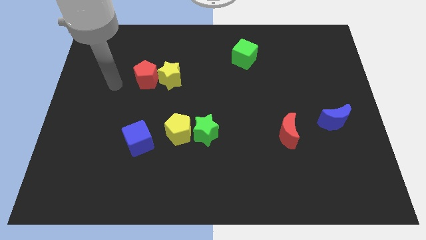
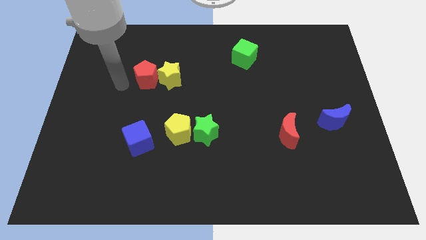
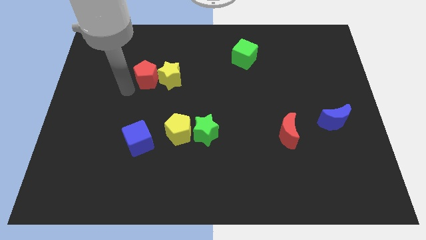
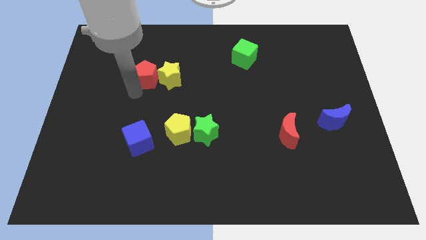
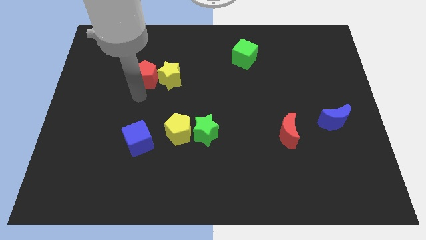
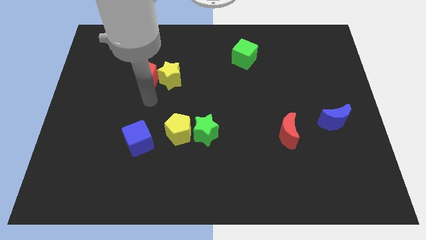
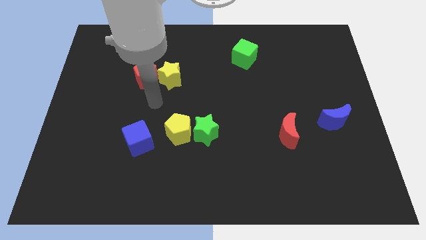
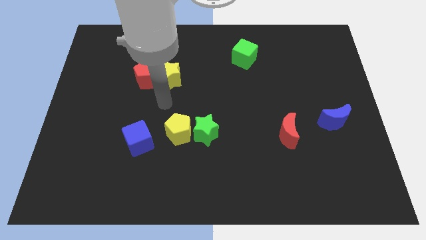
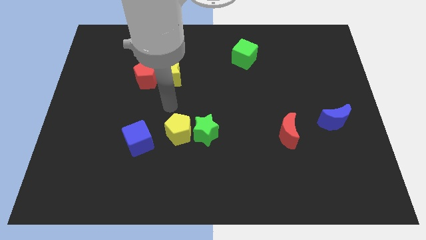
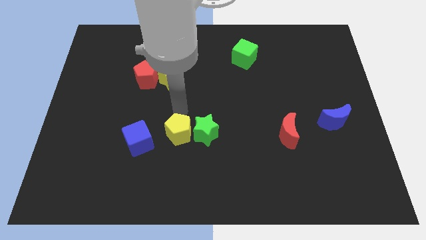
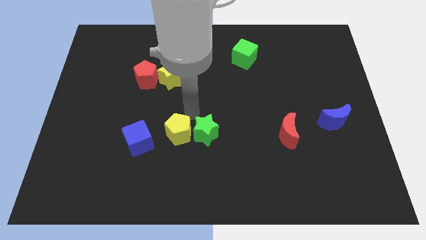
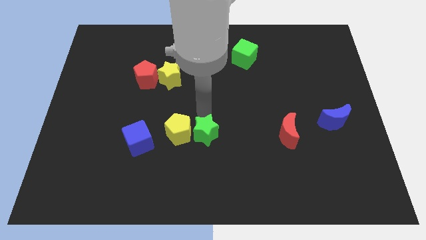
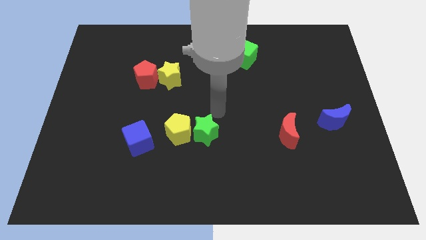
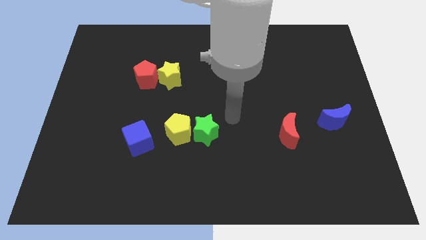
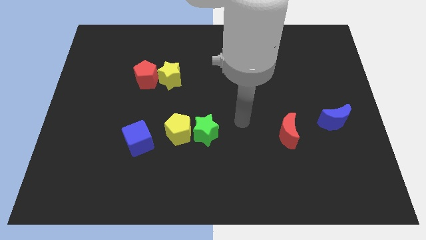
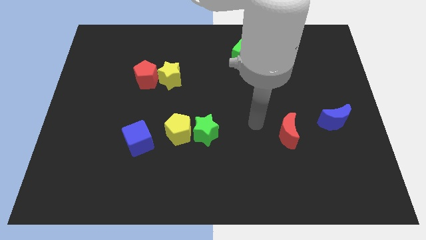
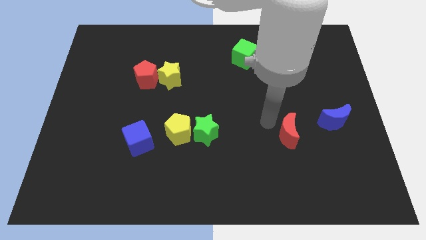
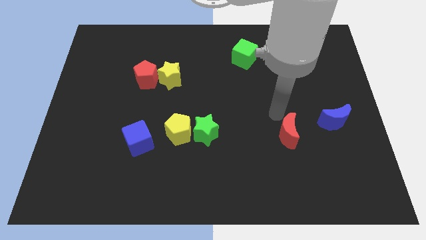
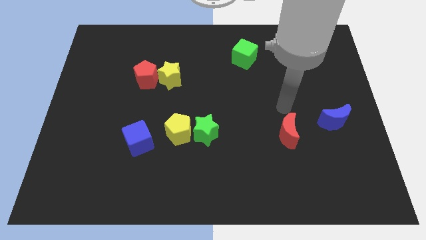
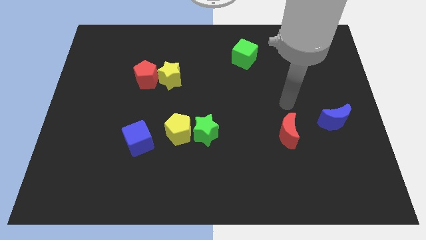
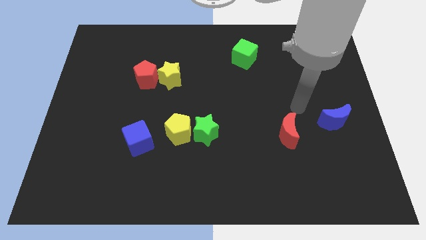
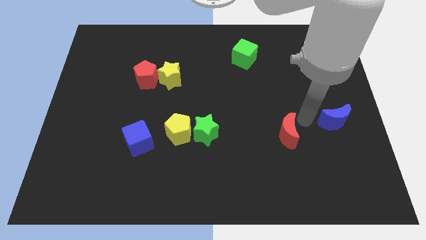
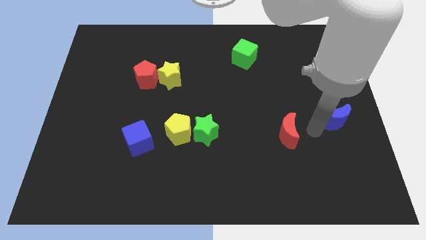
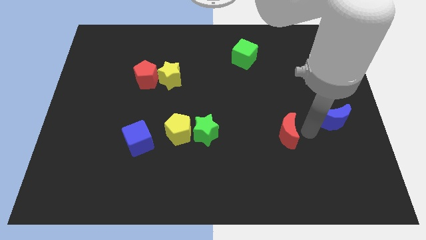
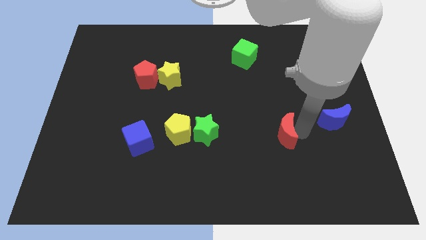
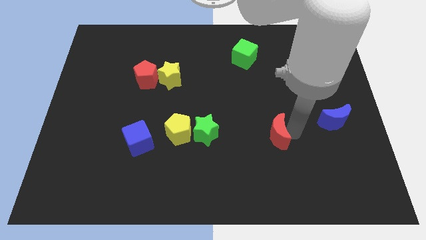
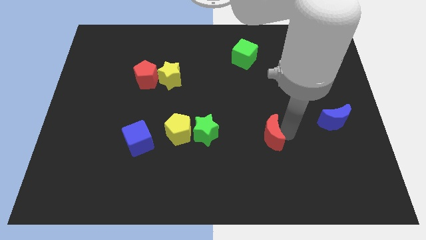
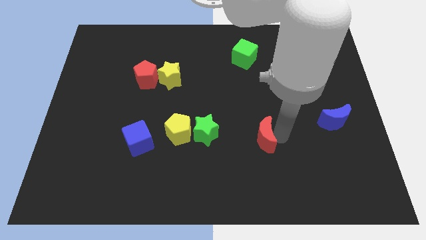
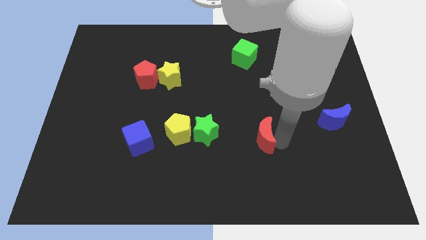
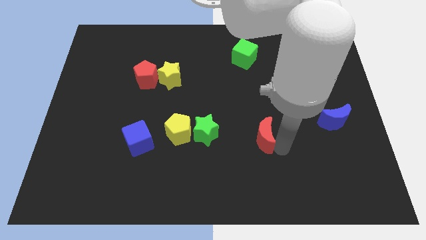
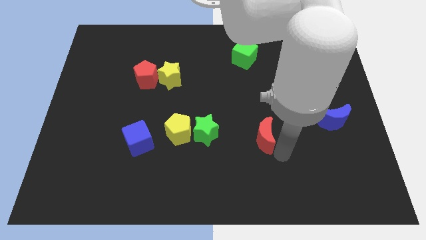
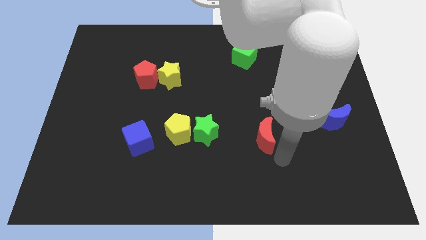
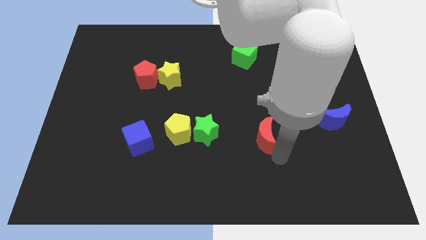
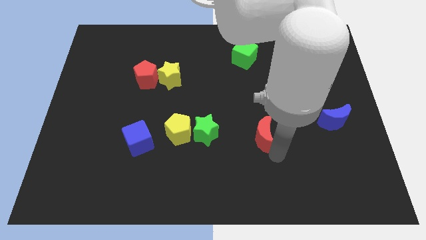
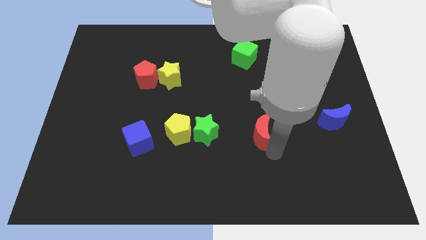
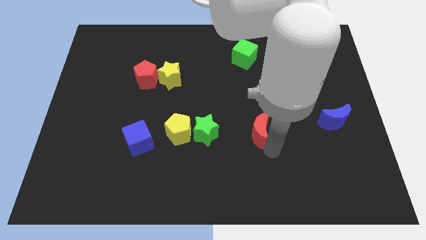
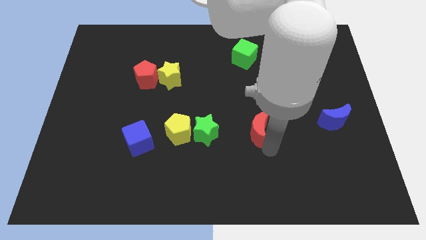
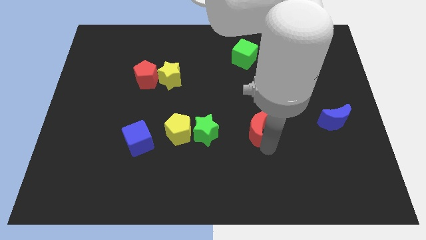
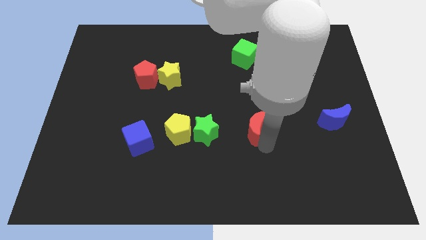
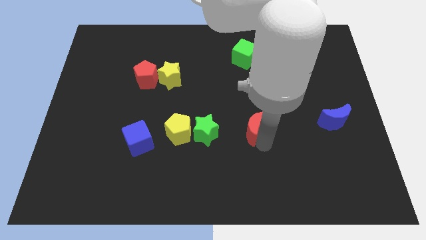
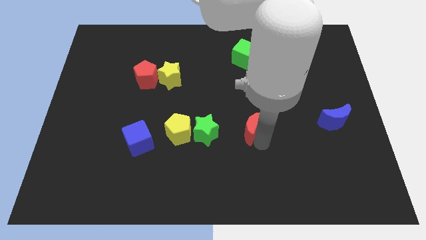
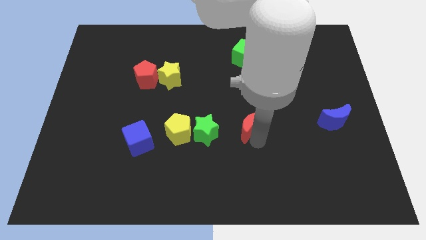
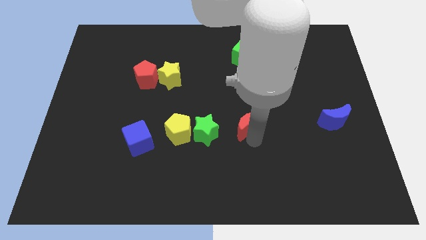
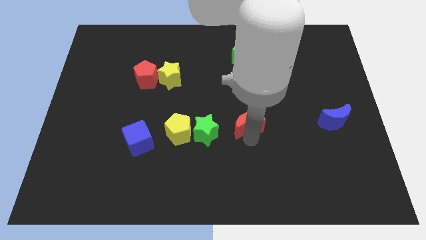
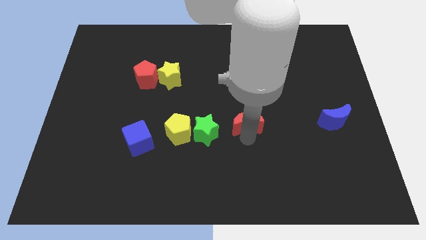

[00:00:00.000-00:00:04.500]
push the red moon a little bit upwards and then left

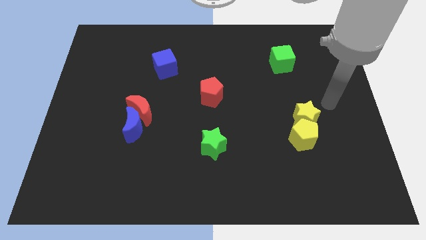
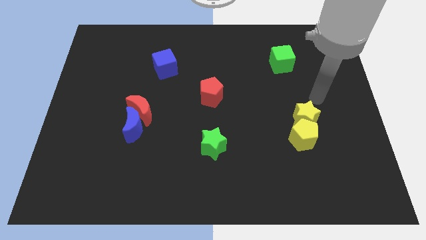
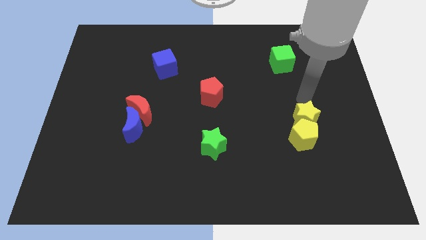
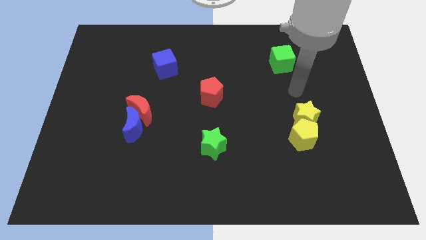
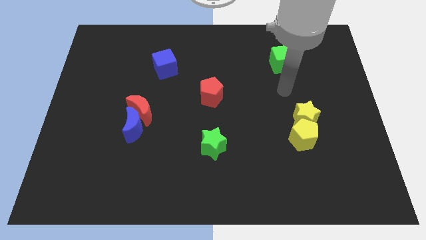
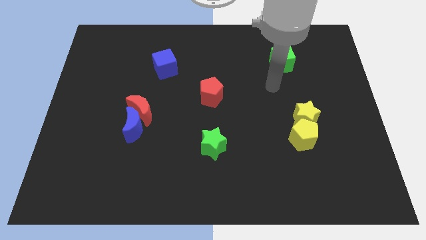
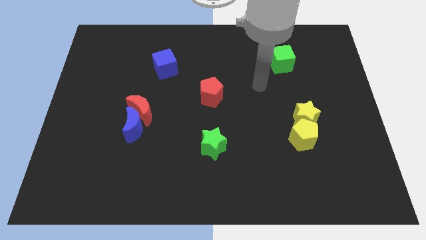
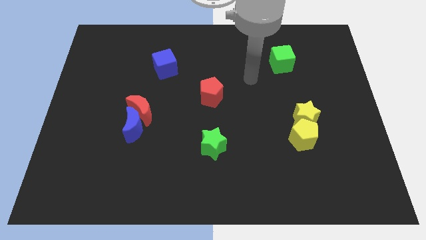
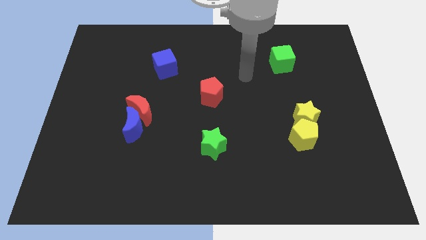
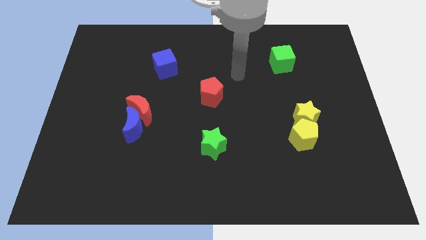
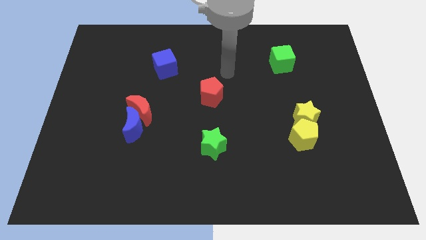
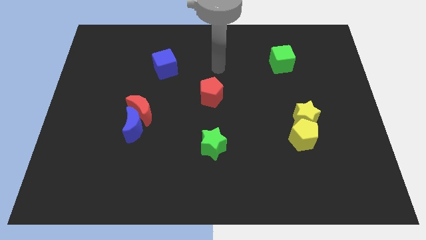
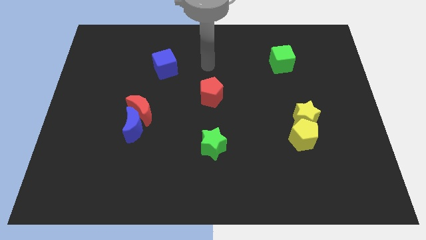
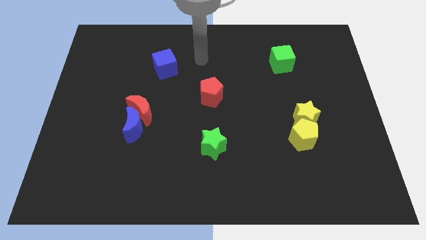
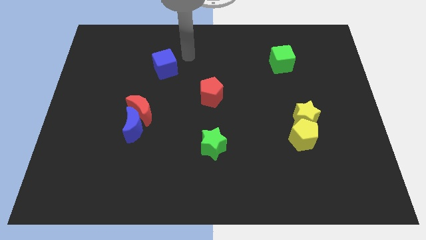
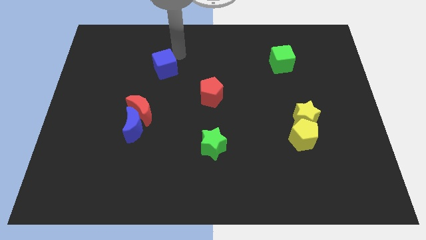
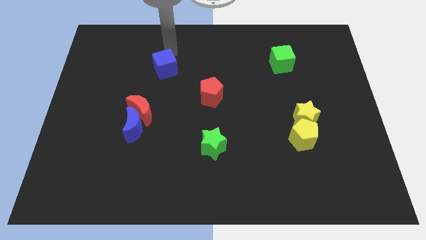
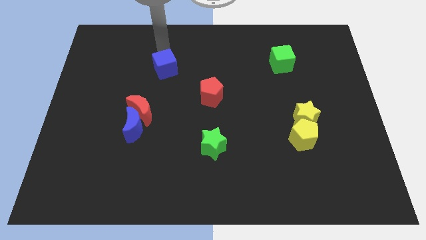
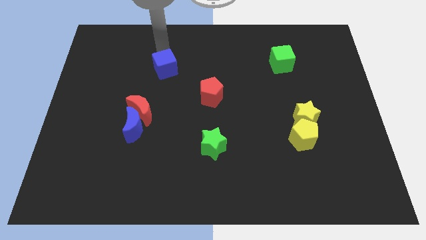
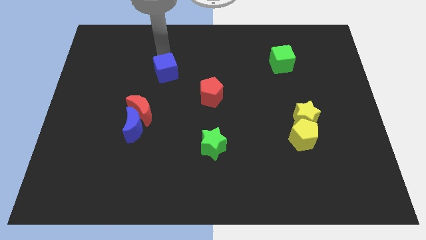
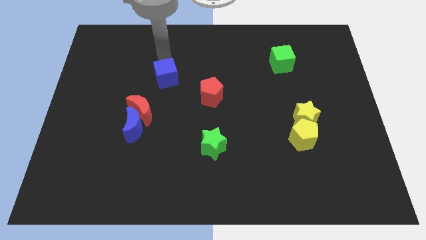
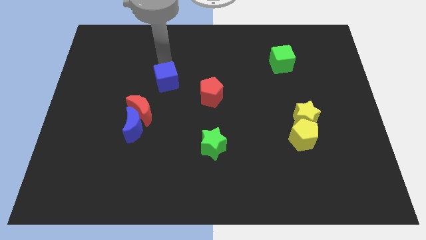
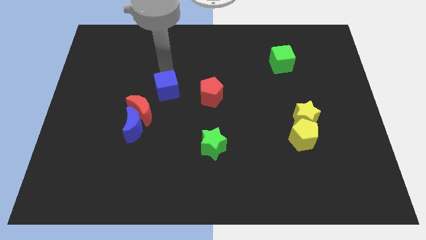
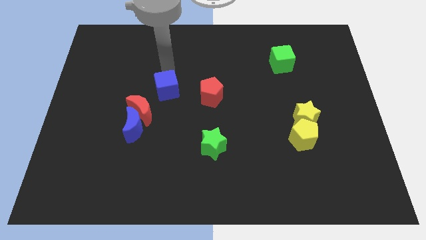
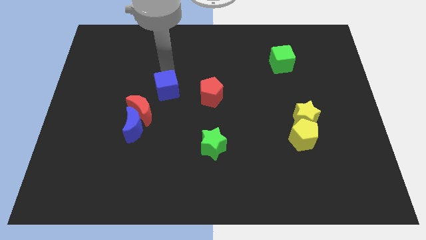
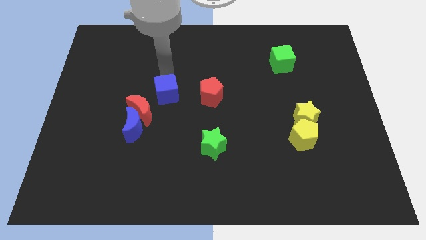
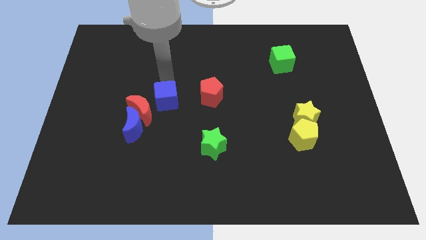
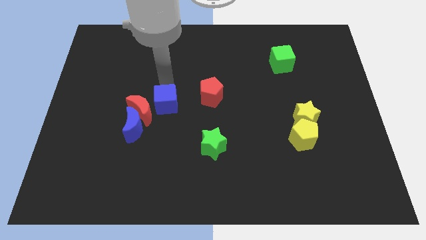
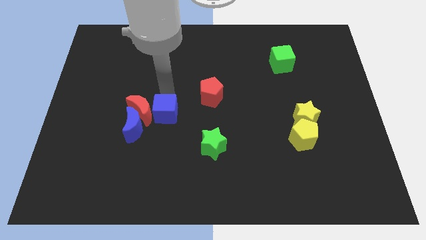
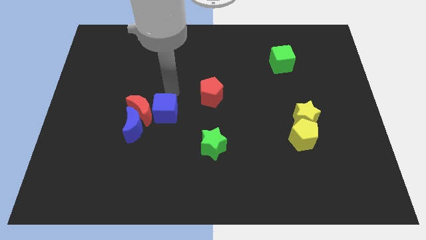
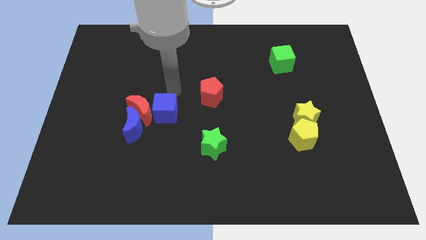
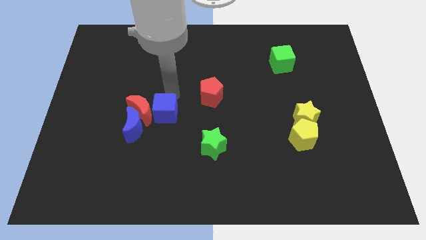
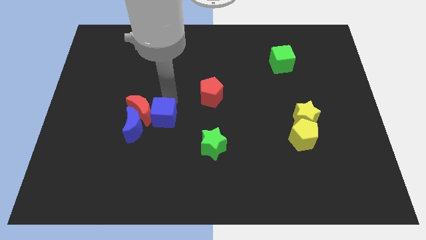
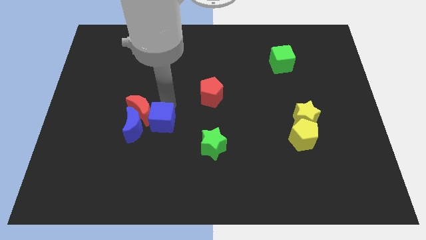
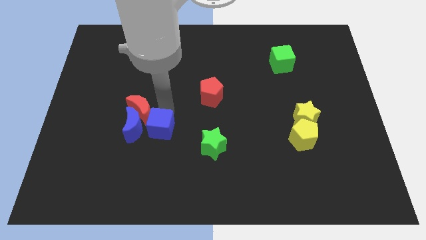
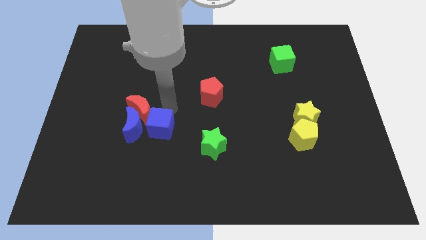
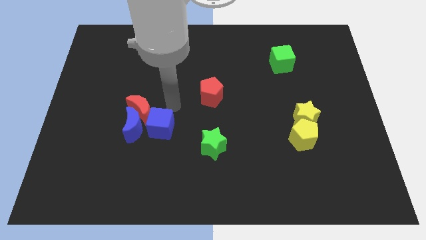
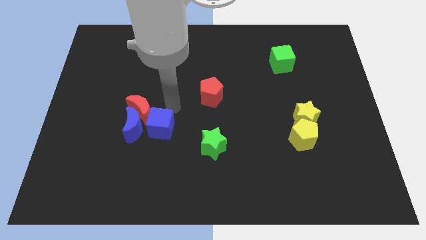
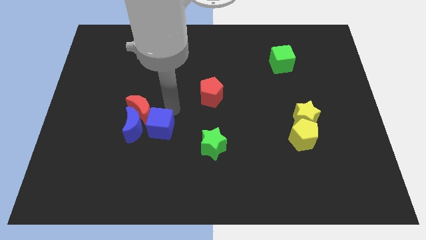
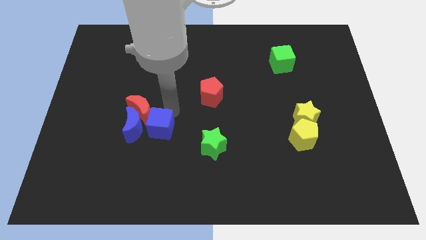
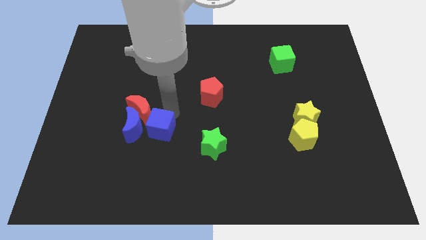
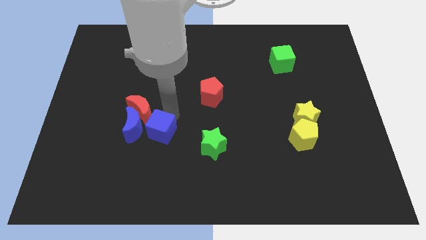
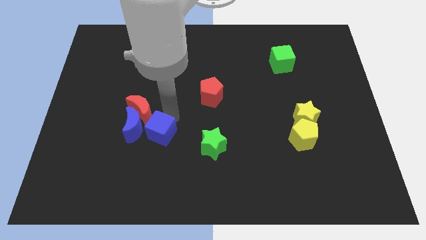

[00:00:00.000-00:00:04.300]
move the blue cube downwards
